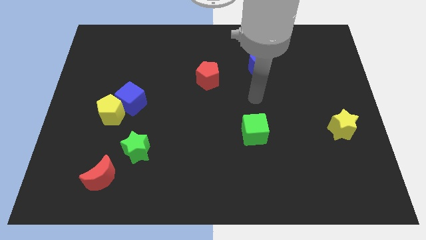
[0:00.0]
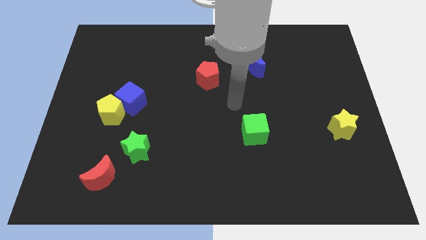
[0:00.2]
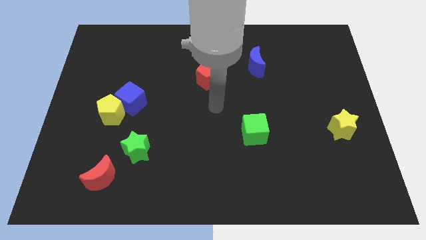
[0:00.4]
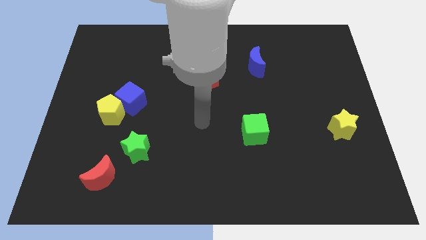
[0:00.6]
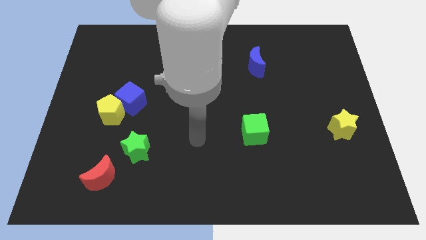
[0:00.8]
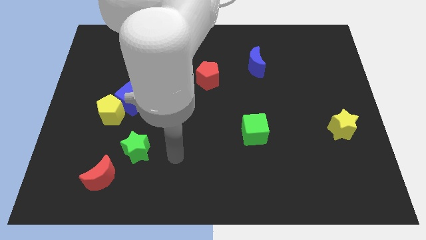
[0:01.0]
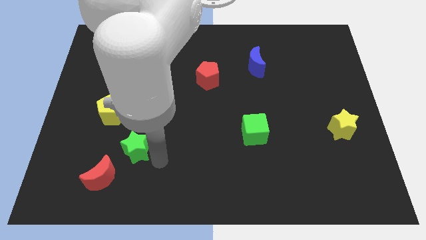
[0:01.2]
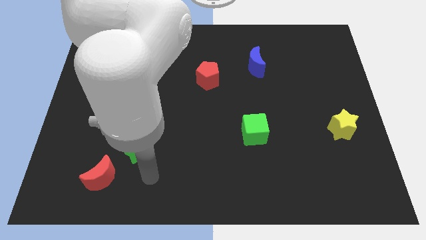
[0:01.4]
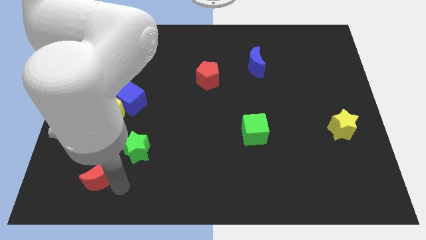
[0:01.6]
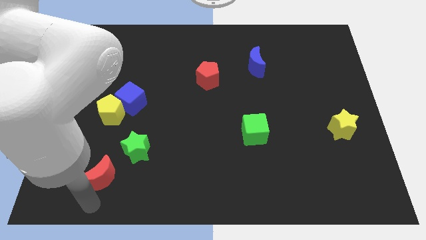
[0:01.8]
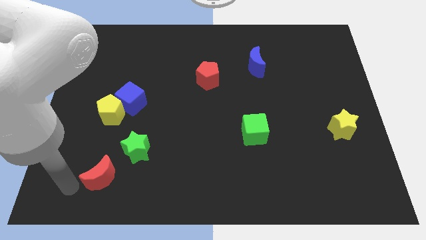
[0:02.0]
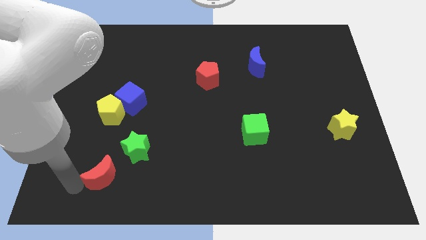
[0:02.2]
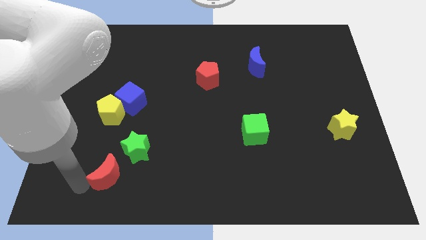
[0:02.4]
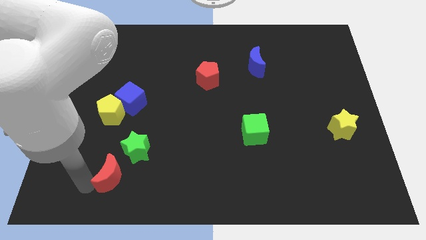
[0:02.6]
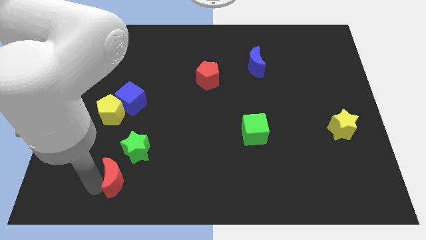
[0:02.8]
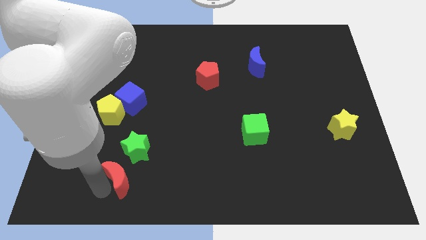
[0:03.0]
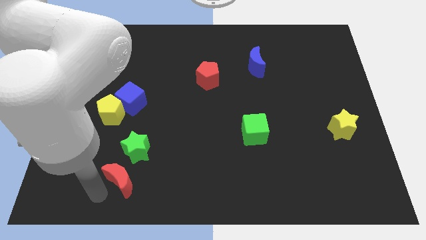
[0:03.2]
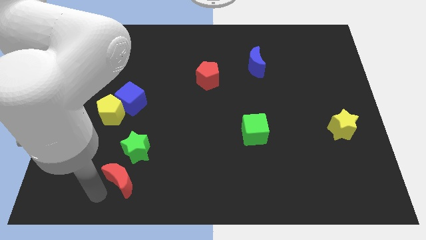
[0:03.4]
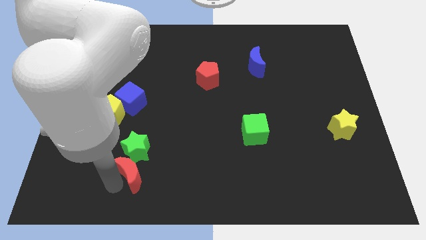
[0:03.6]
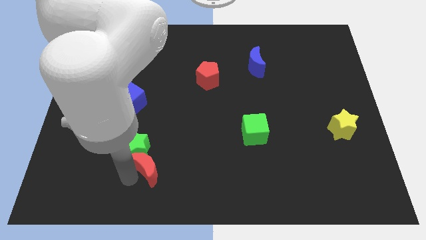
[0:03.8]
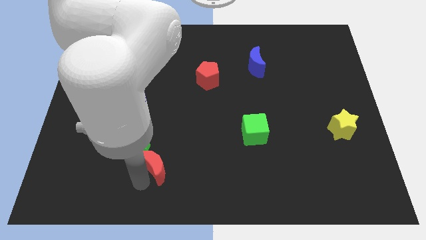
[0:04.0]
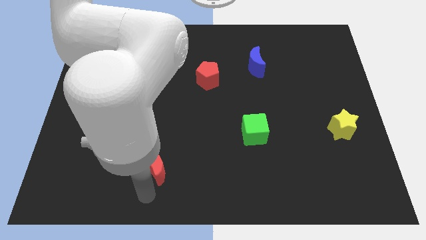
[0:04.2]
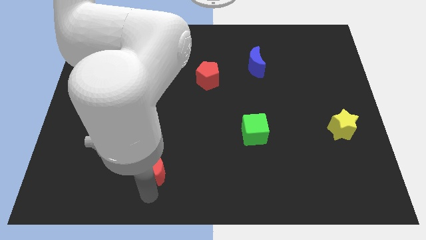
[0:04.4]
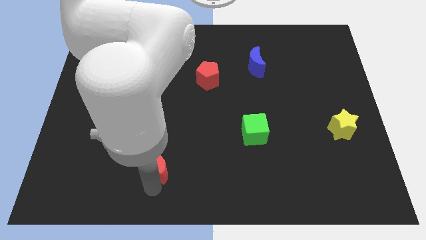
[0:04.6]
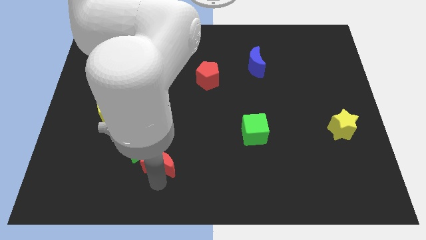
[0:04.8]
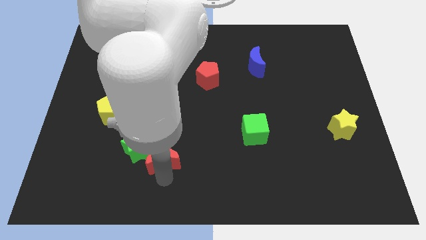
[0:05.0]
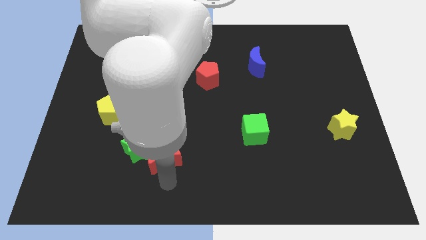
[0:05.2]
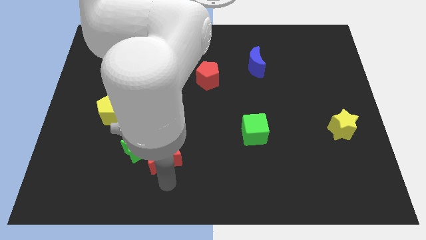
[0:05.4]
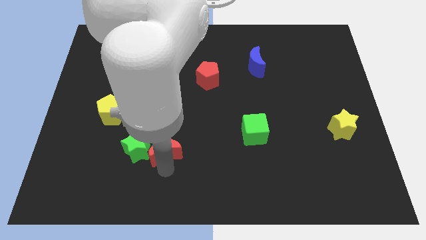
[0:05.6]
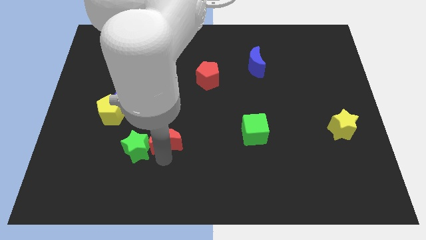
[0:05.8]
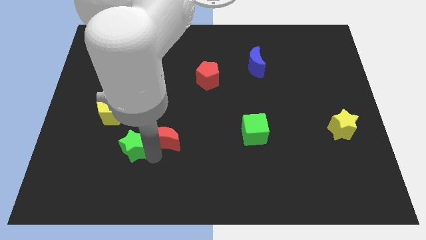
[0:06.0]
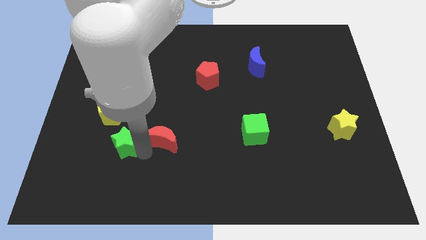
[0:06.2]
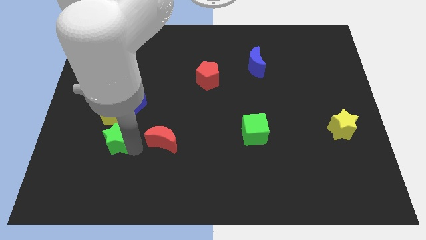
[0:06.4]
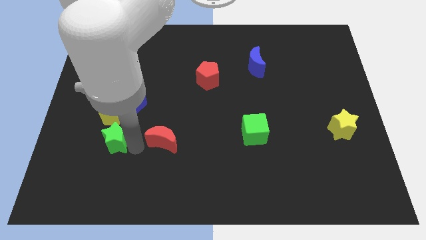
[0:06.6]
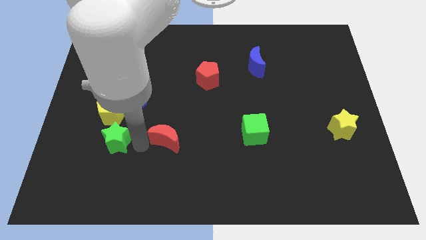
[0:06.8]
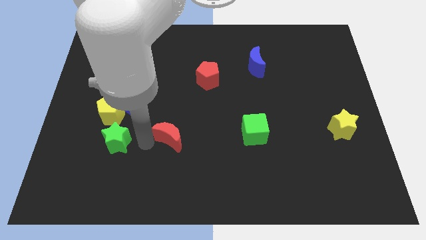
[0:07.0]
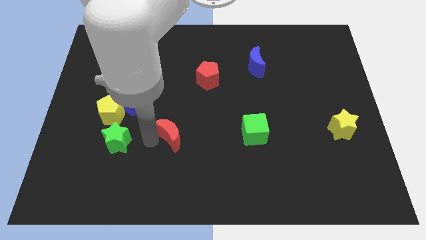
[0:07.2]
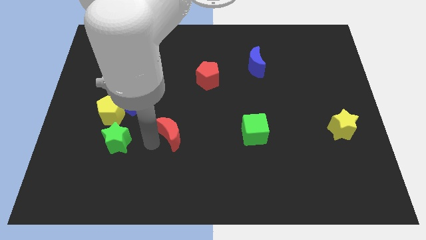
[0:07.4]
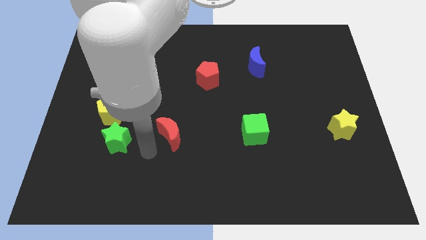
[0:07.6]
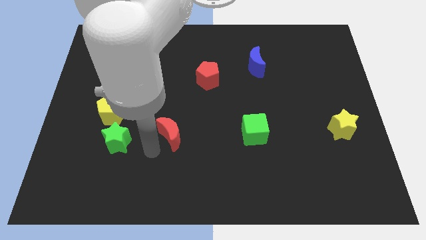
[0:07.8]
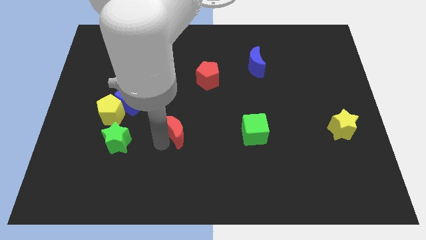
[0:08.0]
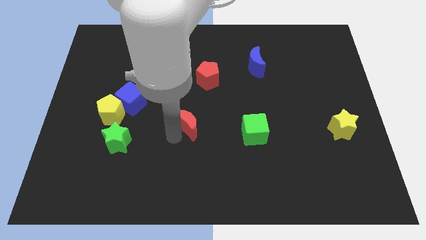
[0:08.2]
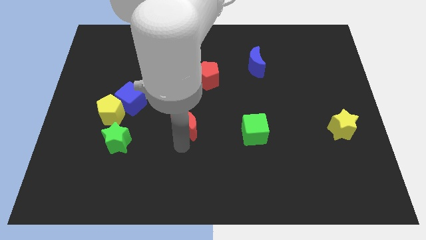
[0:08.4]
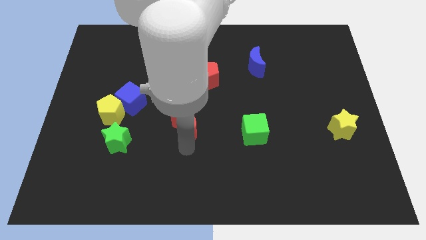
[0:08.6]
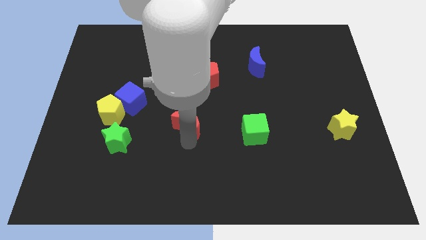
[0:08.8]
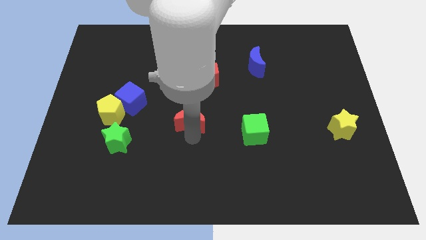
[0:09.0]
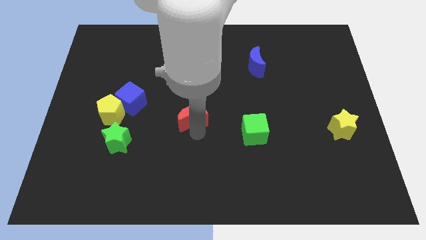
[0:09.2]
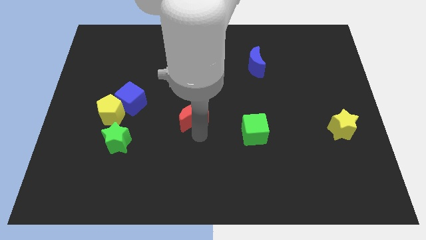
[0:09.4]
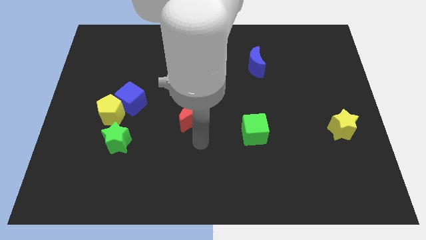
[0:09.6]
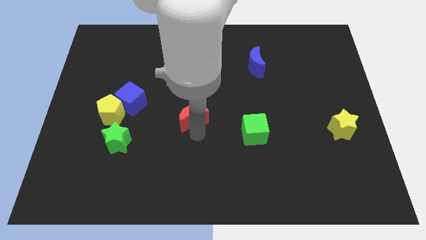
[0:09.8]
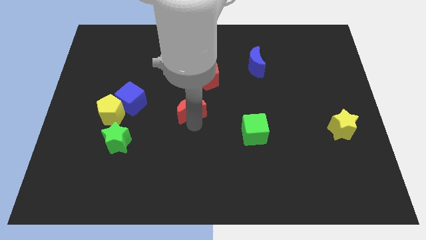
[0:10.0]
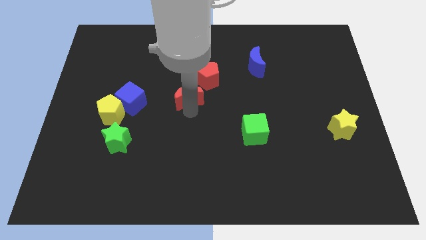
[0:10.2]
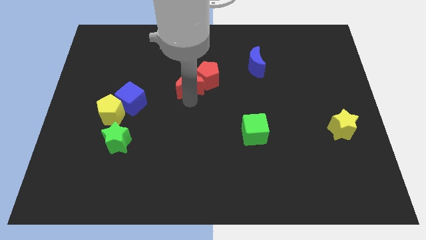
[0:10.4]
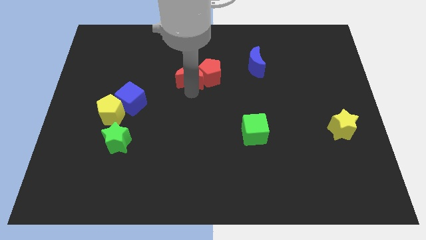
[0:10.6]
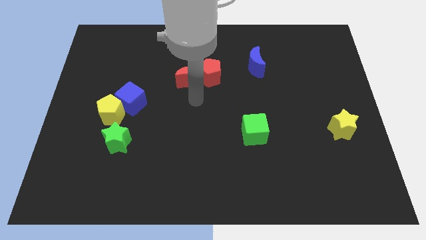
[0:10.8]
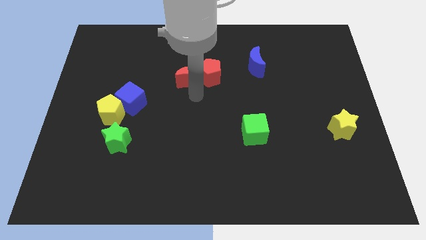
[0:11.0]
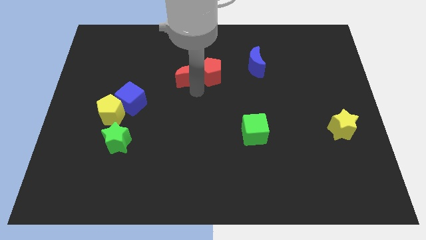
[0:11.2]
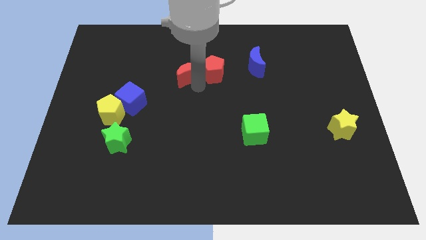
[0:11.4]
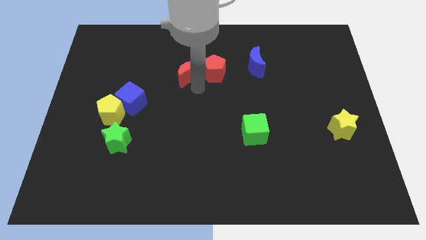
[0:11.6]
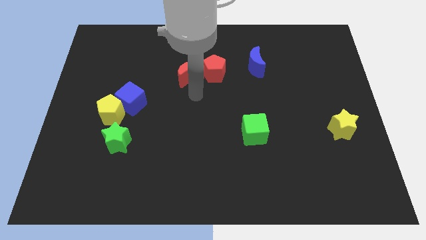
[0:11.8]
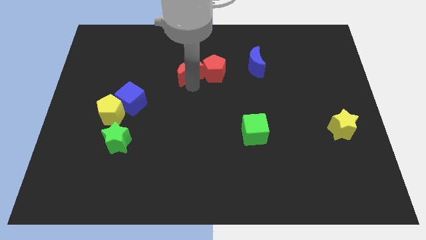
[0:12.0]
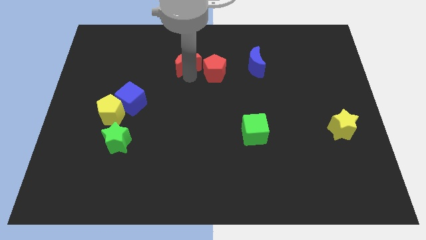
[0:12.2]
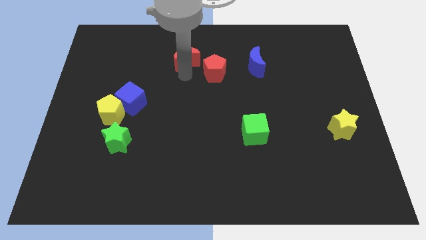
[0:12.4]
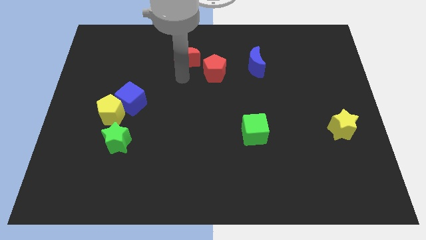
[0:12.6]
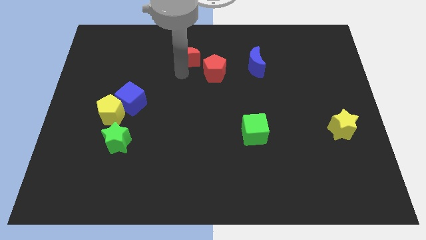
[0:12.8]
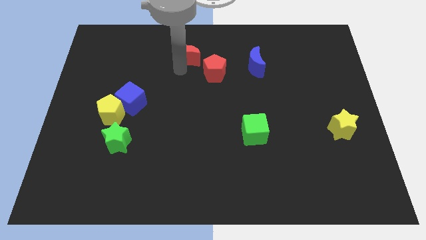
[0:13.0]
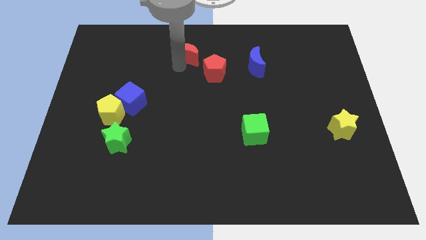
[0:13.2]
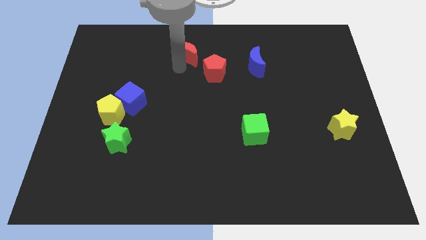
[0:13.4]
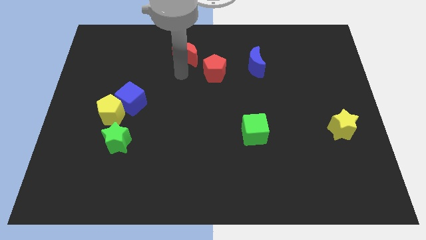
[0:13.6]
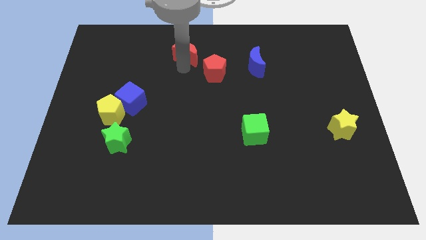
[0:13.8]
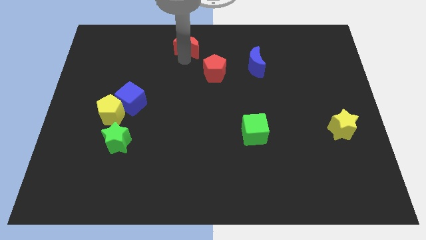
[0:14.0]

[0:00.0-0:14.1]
move the red moon to the top
